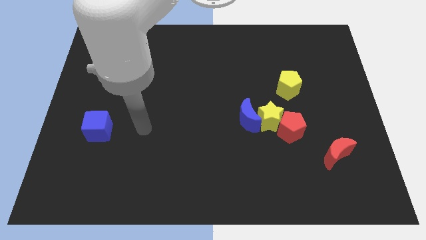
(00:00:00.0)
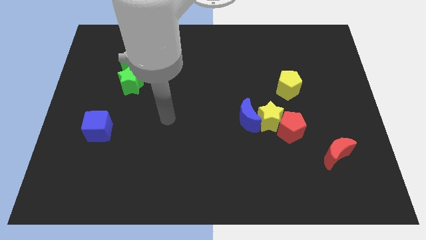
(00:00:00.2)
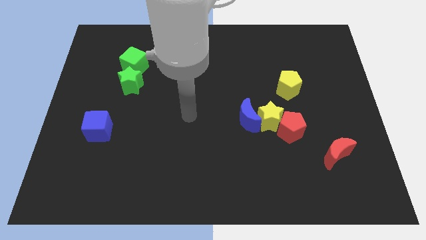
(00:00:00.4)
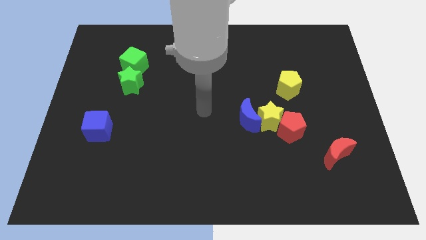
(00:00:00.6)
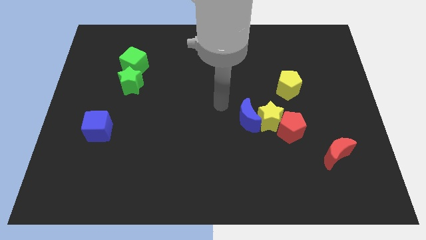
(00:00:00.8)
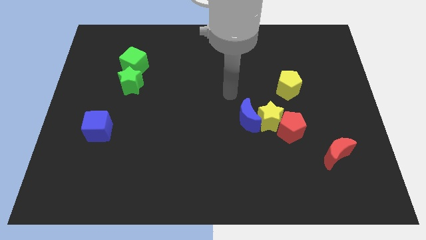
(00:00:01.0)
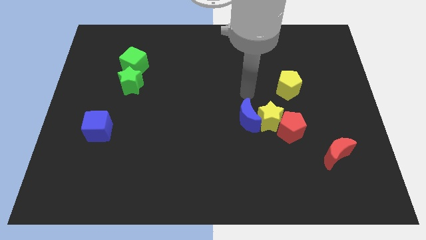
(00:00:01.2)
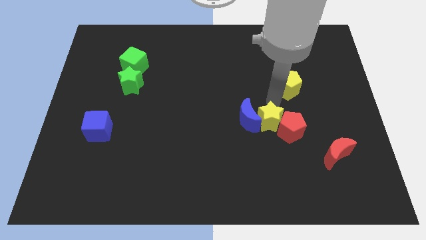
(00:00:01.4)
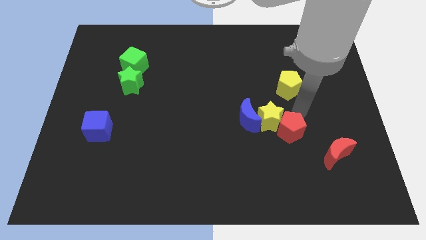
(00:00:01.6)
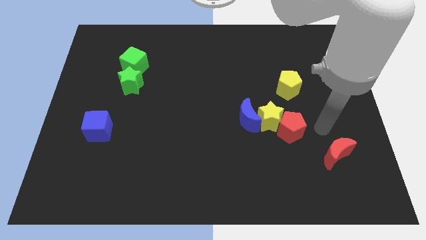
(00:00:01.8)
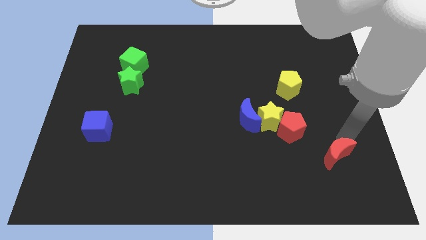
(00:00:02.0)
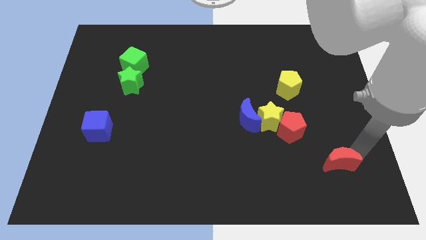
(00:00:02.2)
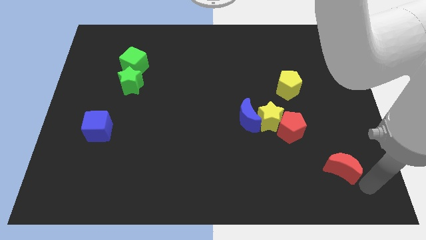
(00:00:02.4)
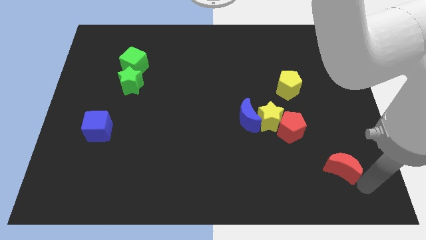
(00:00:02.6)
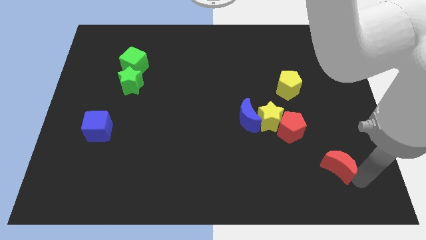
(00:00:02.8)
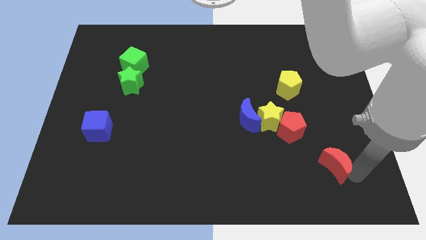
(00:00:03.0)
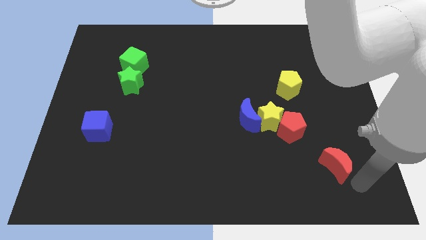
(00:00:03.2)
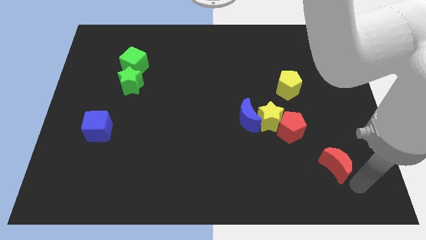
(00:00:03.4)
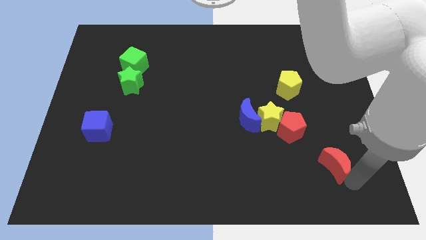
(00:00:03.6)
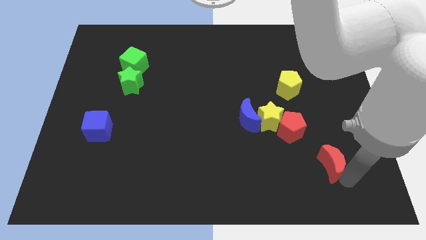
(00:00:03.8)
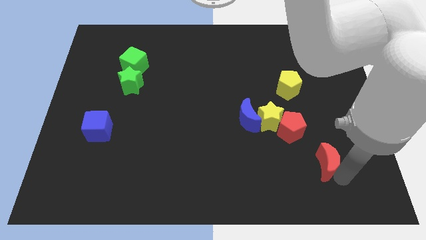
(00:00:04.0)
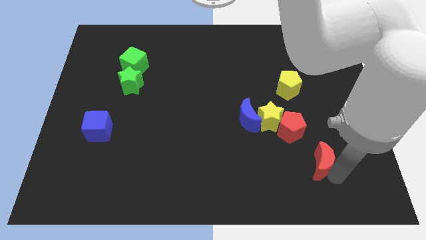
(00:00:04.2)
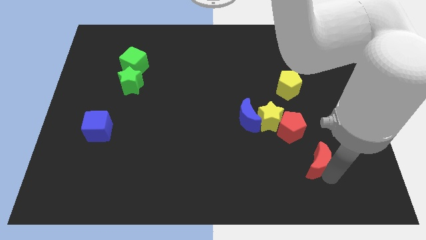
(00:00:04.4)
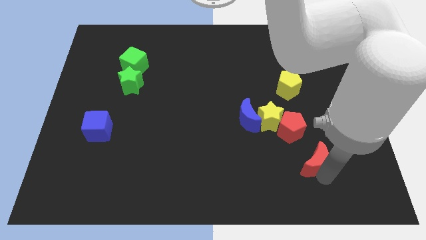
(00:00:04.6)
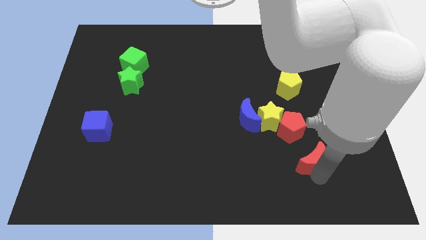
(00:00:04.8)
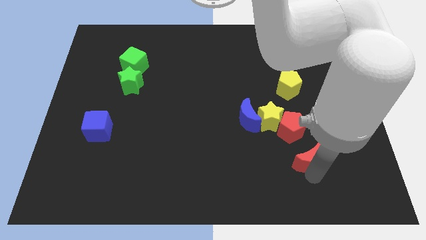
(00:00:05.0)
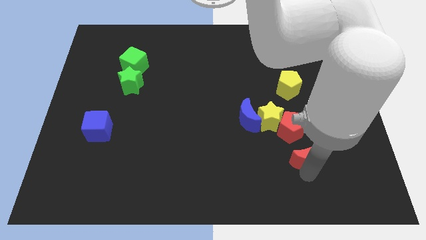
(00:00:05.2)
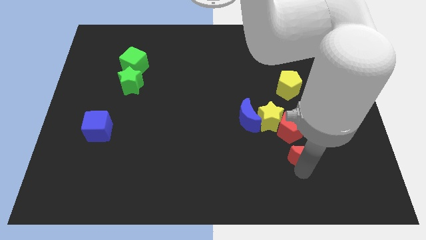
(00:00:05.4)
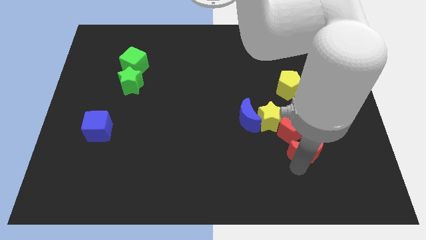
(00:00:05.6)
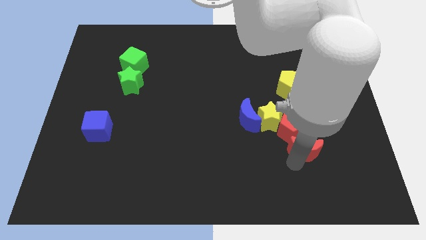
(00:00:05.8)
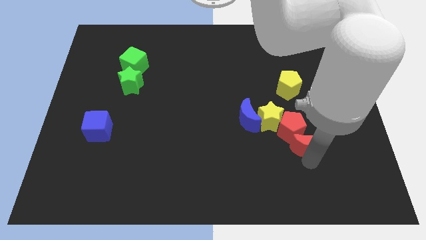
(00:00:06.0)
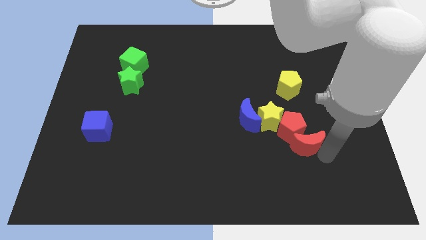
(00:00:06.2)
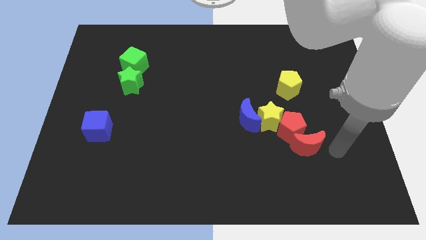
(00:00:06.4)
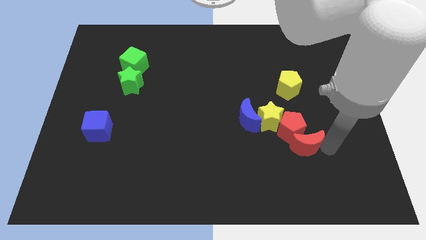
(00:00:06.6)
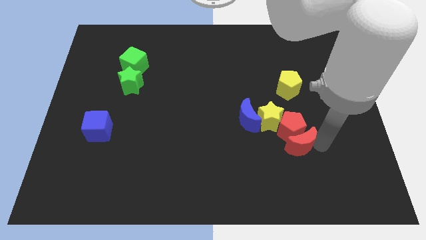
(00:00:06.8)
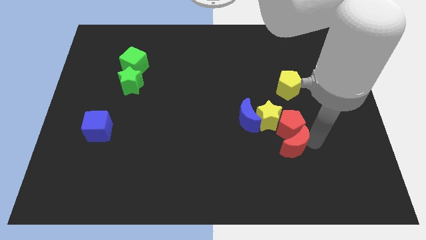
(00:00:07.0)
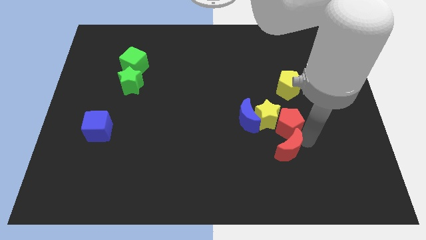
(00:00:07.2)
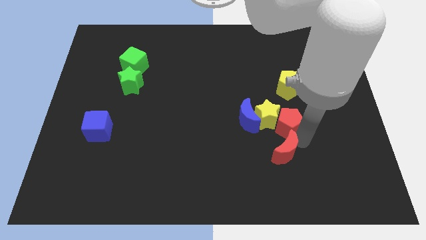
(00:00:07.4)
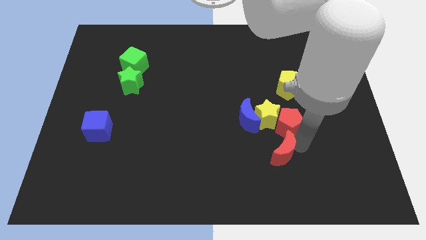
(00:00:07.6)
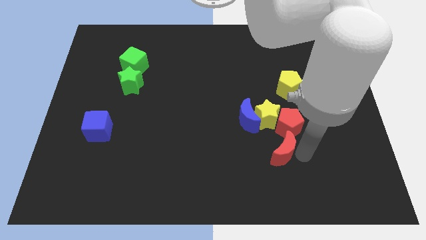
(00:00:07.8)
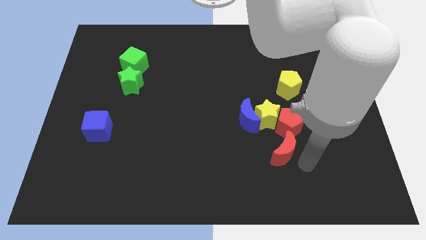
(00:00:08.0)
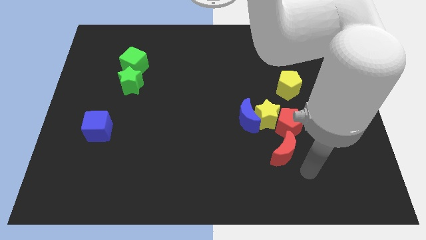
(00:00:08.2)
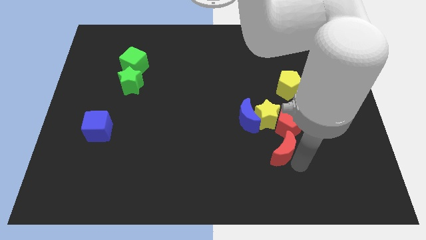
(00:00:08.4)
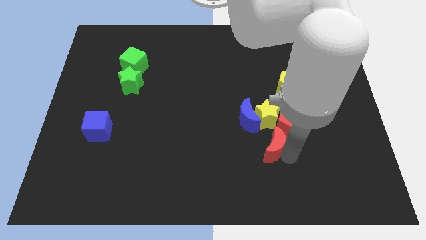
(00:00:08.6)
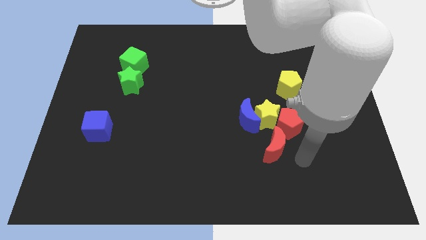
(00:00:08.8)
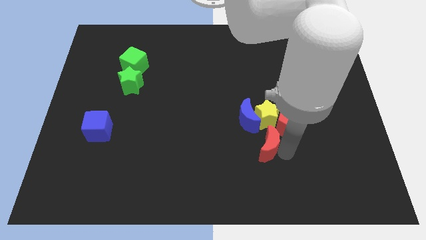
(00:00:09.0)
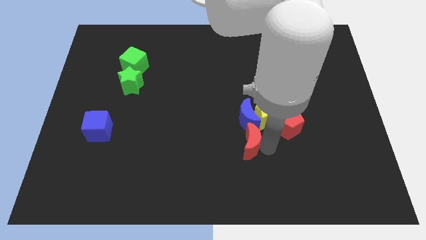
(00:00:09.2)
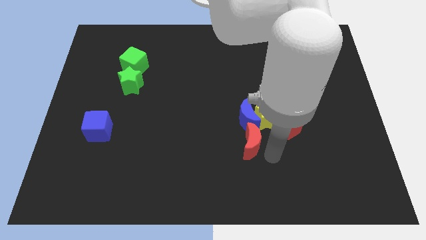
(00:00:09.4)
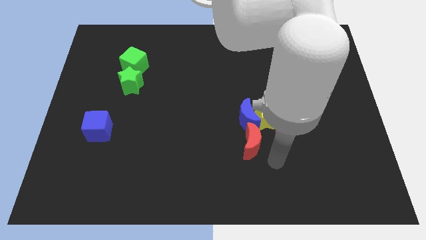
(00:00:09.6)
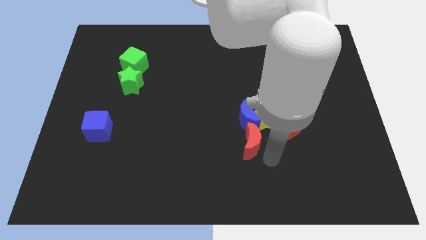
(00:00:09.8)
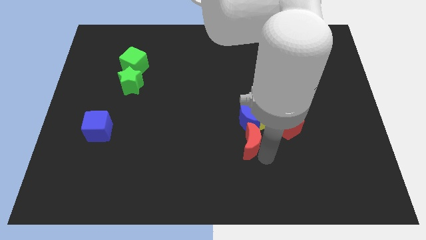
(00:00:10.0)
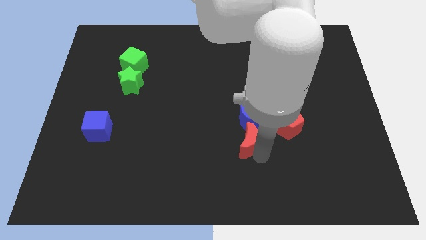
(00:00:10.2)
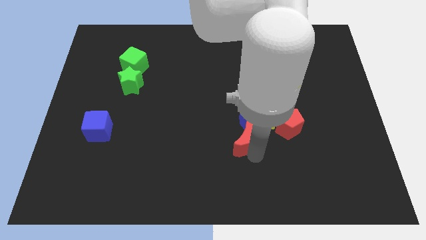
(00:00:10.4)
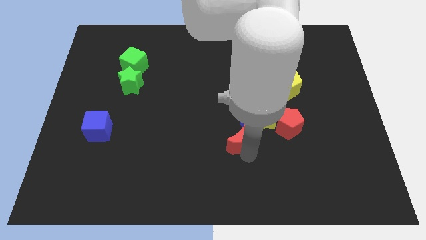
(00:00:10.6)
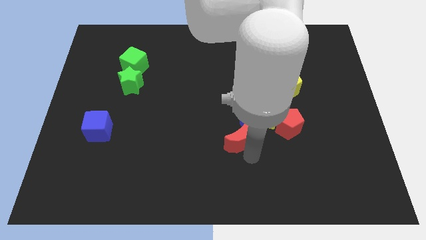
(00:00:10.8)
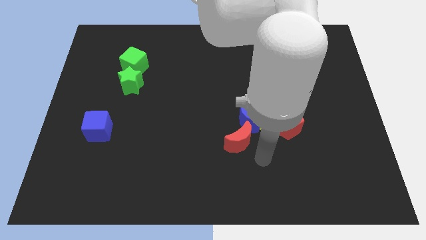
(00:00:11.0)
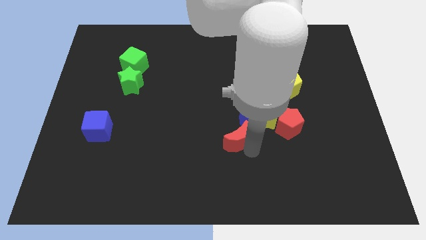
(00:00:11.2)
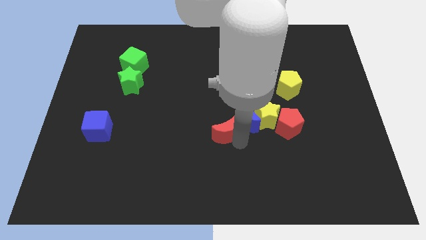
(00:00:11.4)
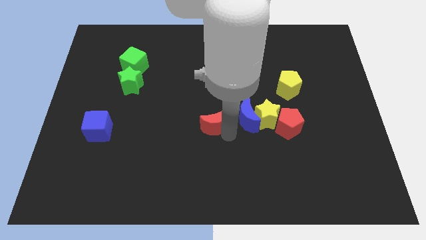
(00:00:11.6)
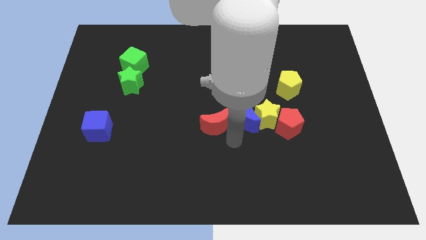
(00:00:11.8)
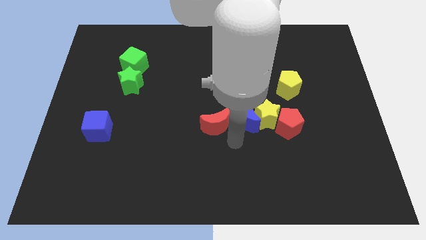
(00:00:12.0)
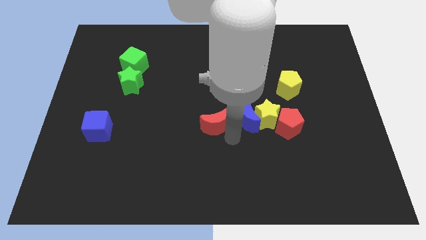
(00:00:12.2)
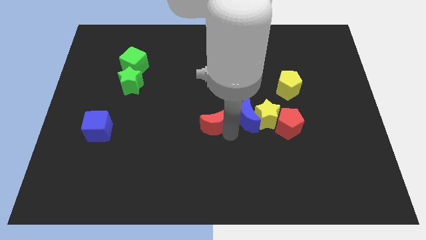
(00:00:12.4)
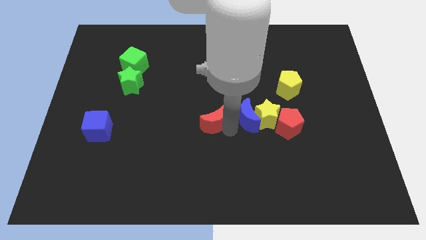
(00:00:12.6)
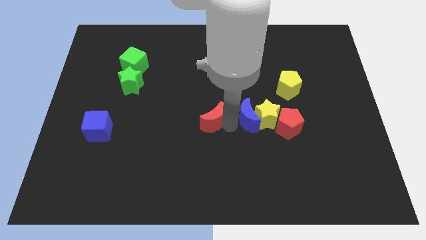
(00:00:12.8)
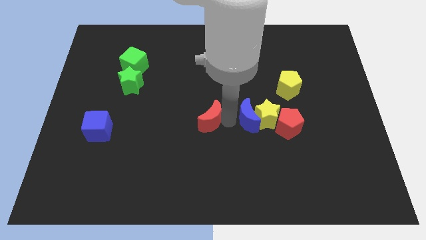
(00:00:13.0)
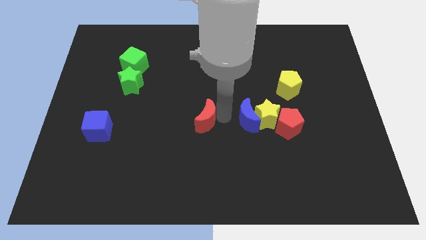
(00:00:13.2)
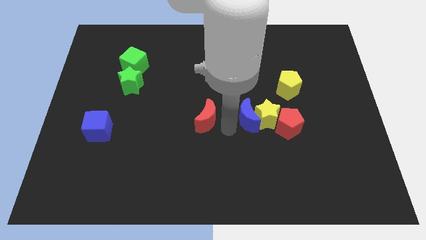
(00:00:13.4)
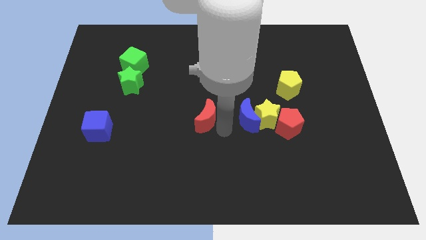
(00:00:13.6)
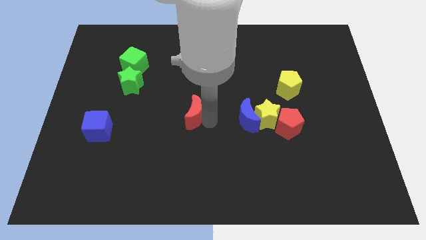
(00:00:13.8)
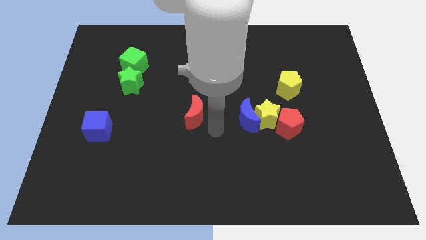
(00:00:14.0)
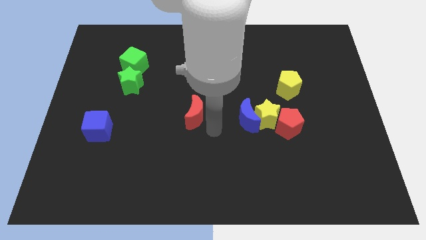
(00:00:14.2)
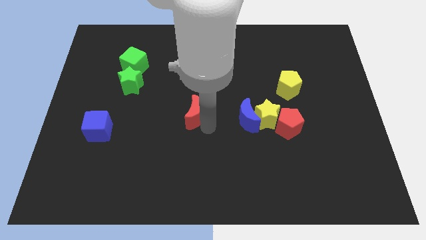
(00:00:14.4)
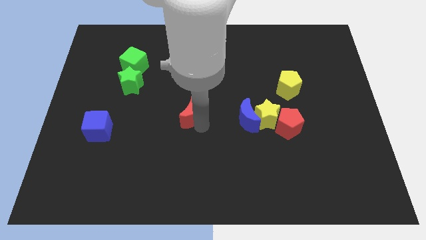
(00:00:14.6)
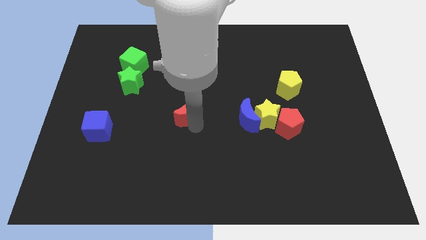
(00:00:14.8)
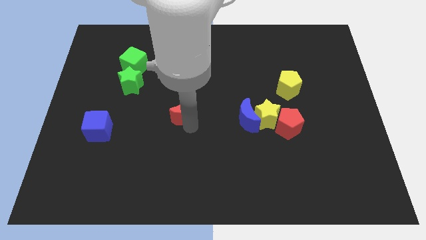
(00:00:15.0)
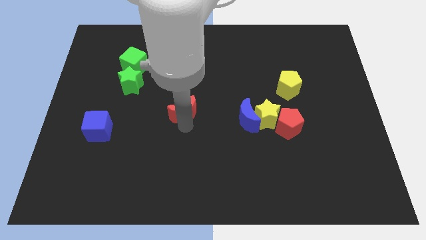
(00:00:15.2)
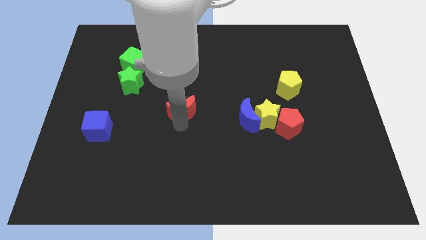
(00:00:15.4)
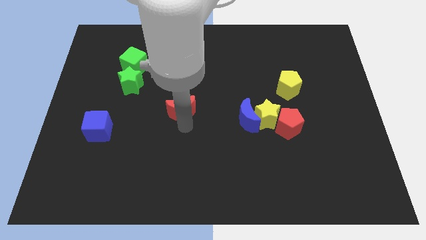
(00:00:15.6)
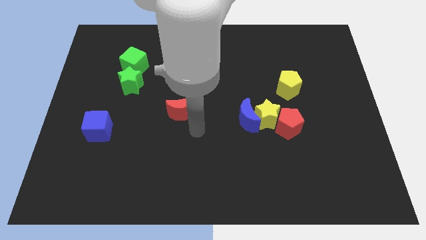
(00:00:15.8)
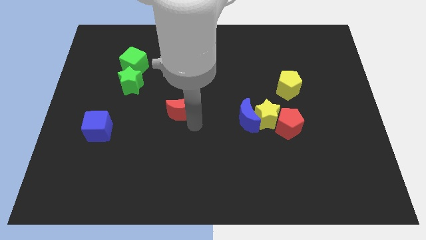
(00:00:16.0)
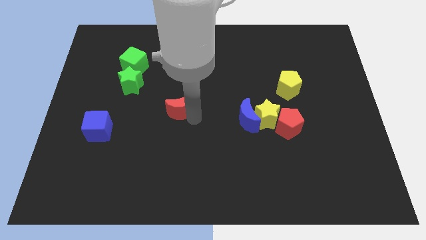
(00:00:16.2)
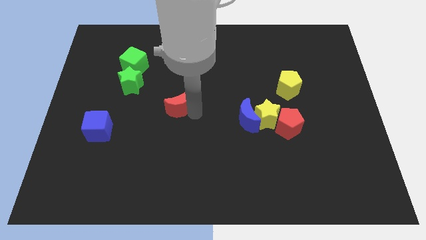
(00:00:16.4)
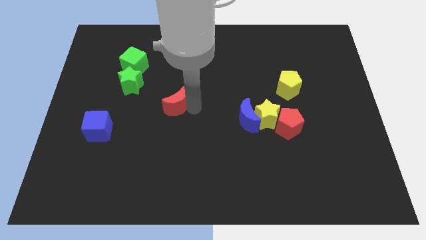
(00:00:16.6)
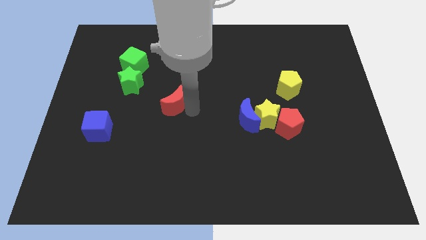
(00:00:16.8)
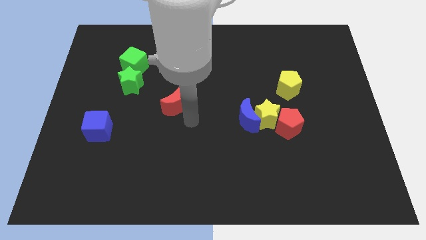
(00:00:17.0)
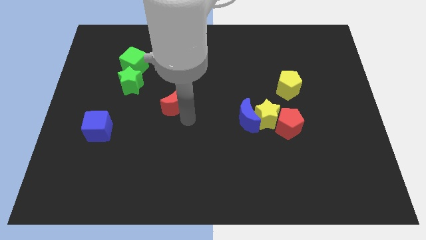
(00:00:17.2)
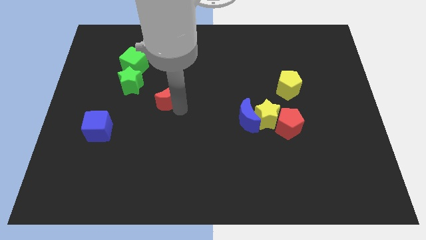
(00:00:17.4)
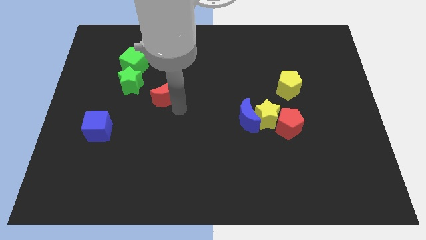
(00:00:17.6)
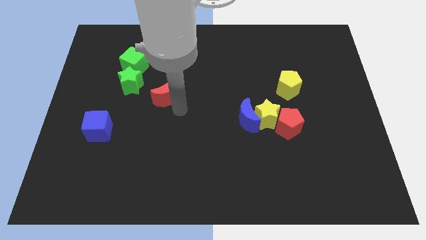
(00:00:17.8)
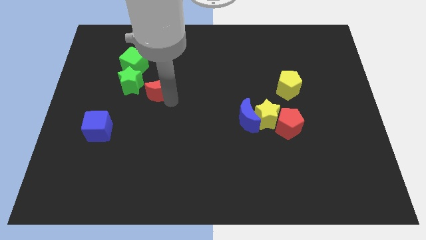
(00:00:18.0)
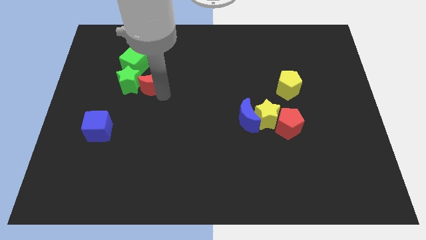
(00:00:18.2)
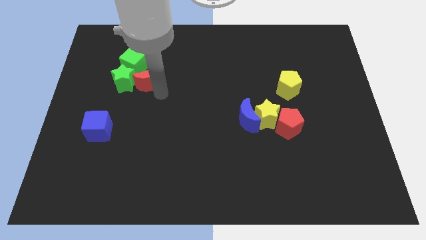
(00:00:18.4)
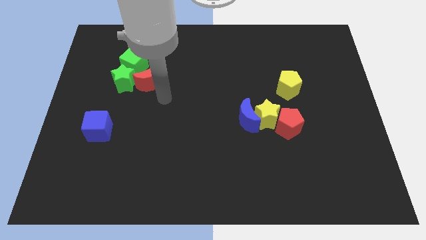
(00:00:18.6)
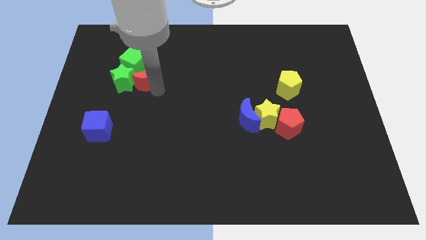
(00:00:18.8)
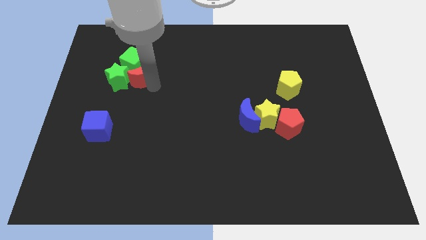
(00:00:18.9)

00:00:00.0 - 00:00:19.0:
slide the red moon next to the green cube
